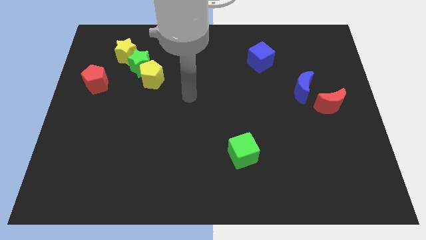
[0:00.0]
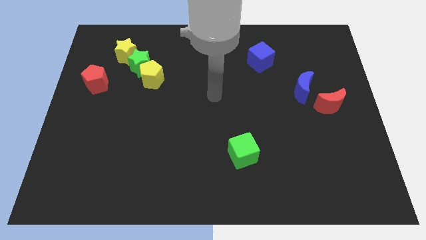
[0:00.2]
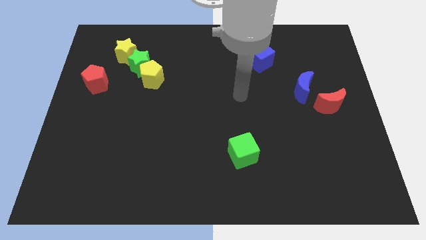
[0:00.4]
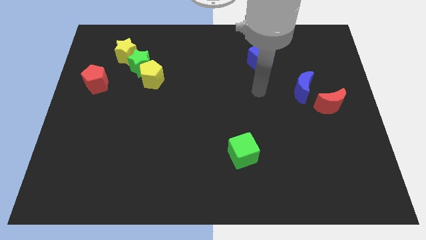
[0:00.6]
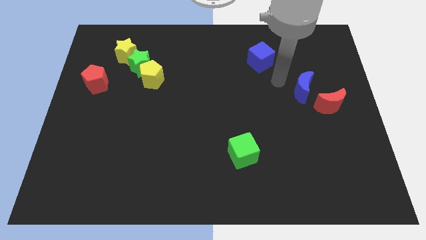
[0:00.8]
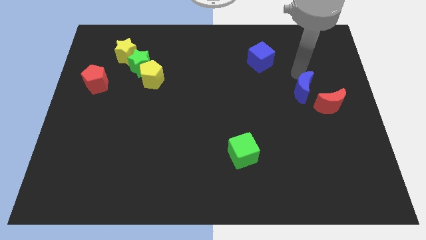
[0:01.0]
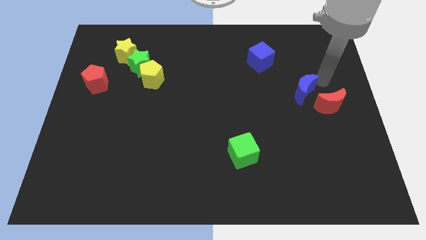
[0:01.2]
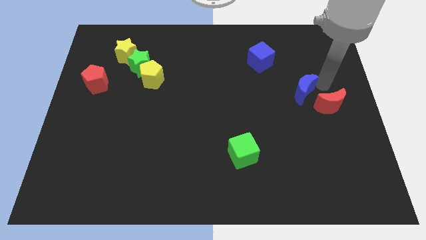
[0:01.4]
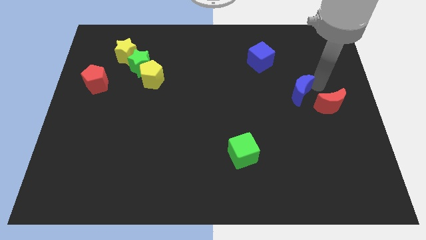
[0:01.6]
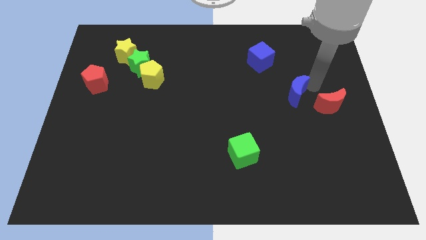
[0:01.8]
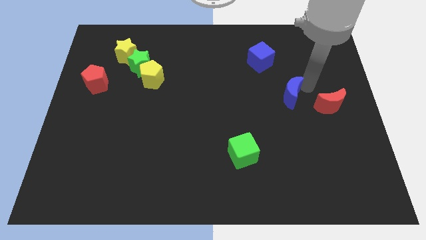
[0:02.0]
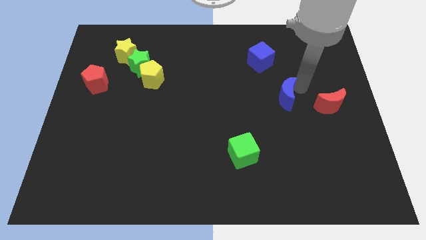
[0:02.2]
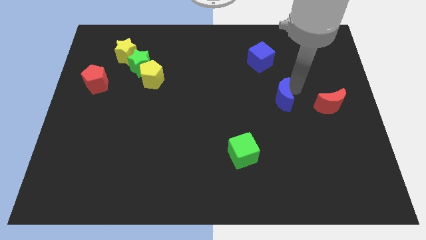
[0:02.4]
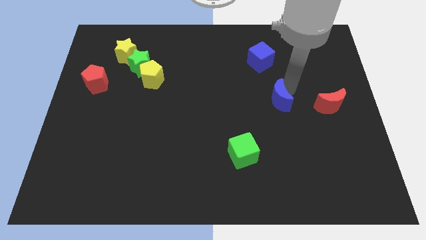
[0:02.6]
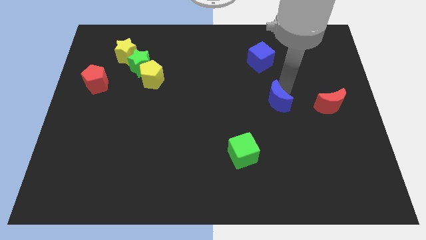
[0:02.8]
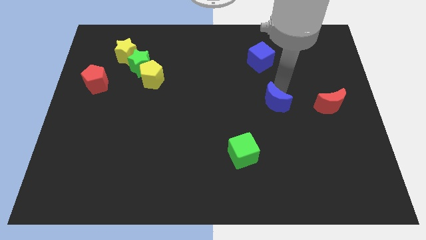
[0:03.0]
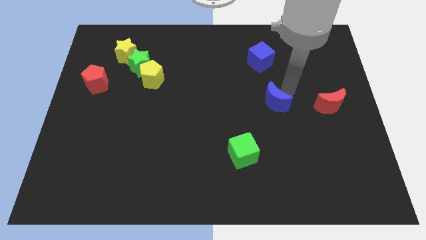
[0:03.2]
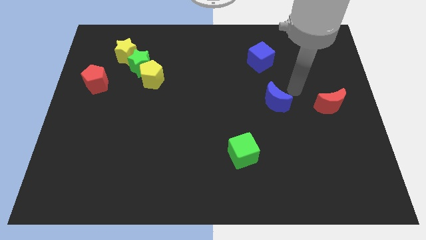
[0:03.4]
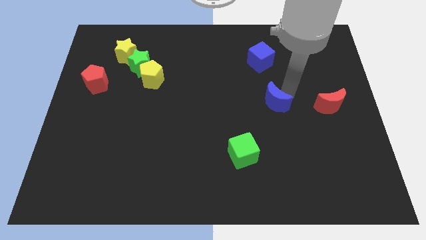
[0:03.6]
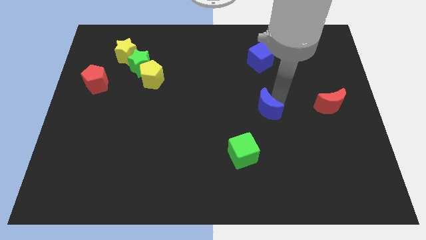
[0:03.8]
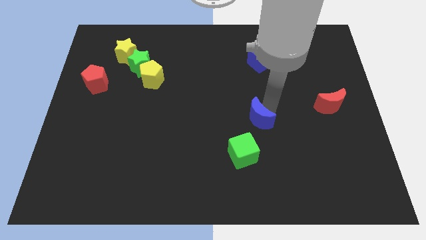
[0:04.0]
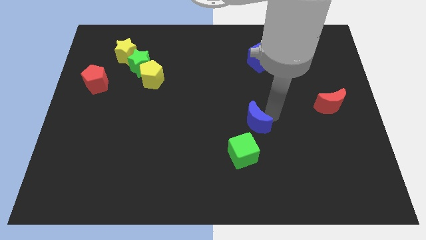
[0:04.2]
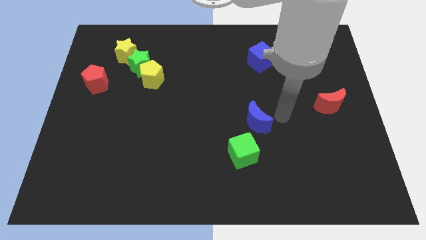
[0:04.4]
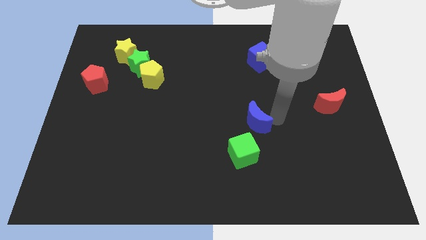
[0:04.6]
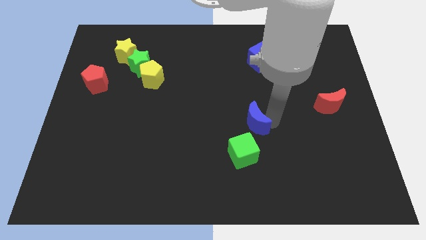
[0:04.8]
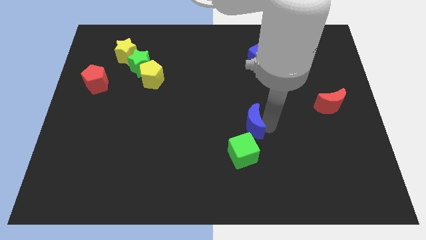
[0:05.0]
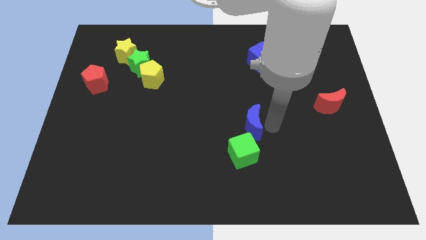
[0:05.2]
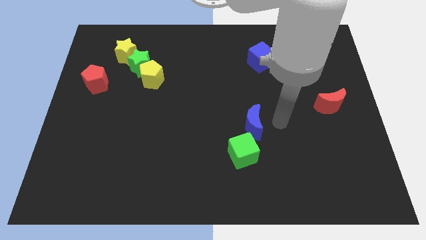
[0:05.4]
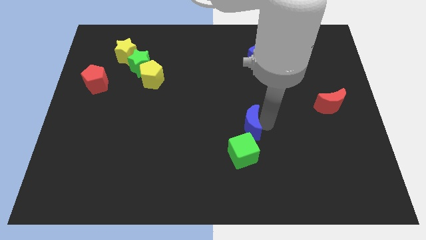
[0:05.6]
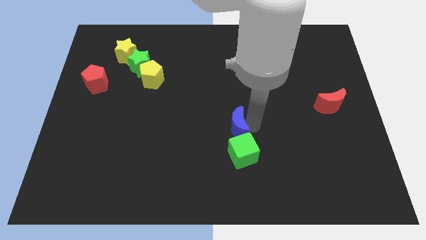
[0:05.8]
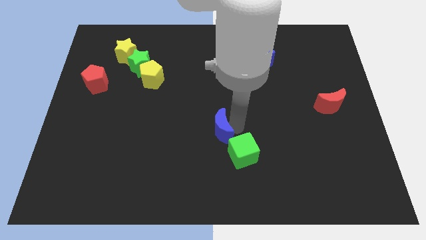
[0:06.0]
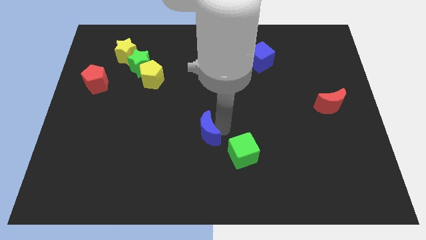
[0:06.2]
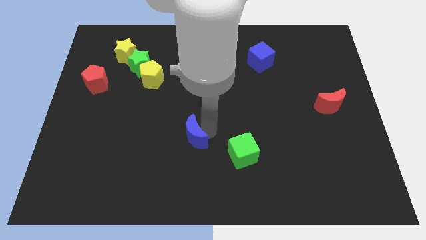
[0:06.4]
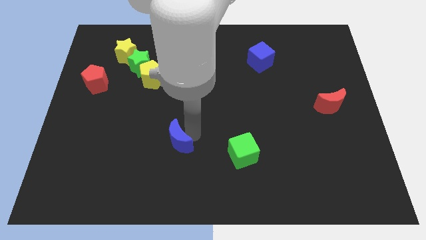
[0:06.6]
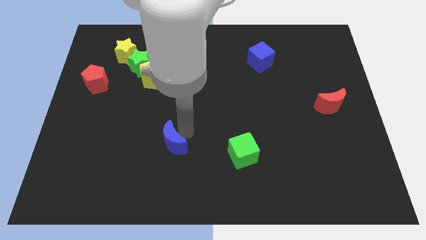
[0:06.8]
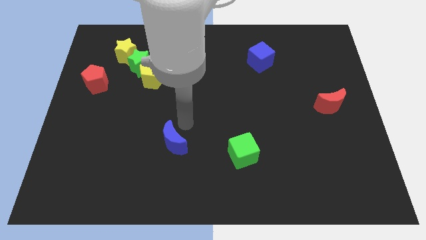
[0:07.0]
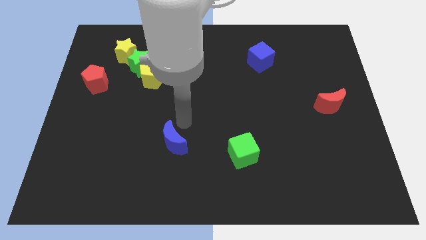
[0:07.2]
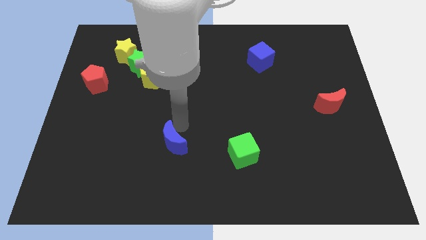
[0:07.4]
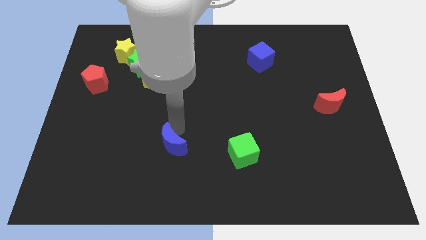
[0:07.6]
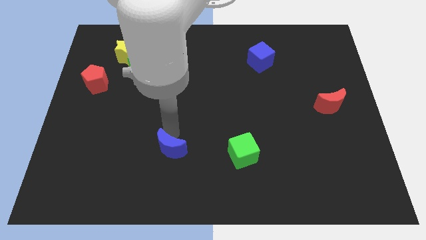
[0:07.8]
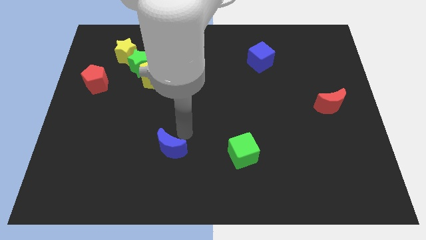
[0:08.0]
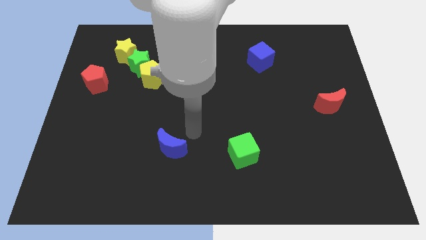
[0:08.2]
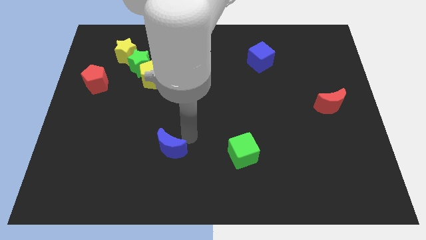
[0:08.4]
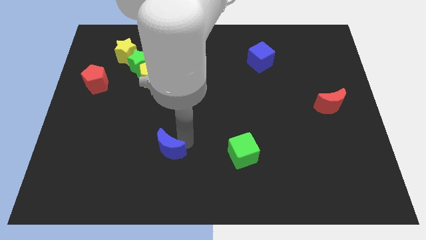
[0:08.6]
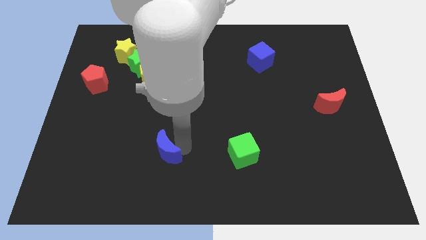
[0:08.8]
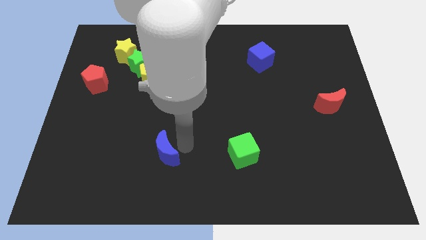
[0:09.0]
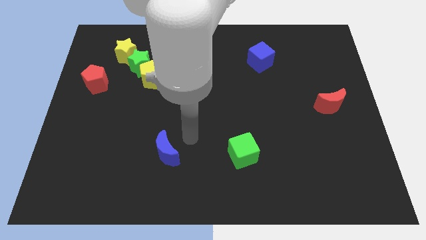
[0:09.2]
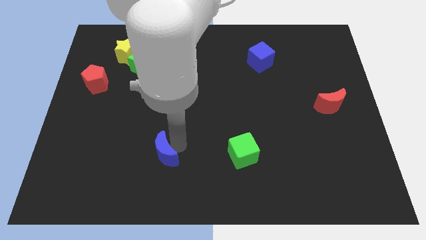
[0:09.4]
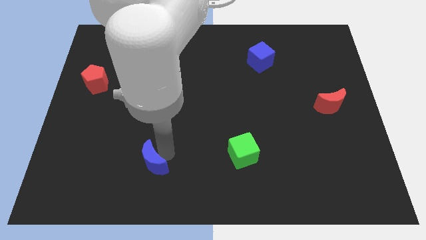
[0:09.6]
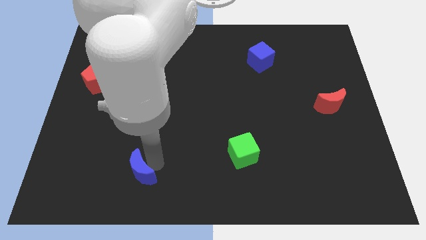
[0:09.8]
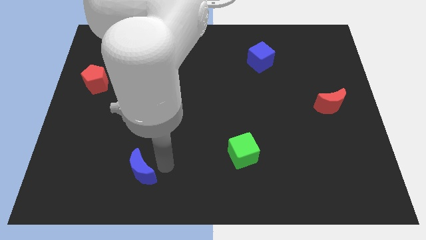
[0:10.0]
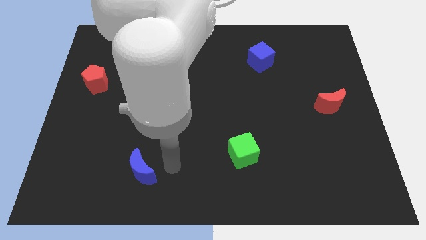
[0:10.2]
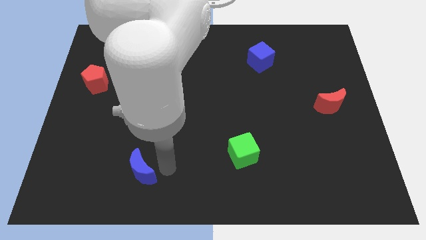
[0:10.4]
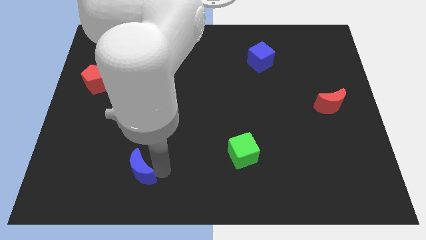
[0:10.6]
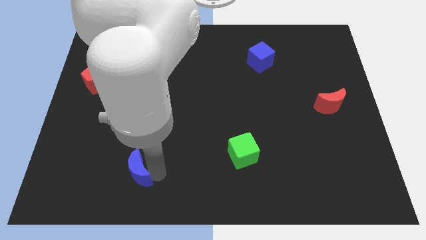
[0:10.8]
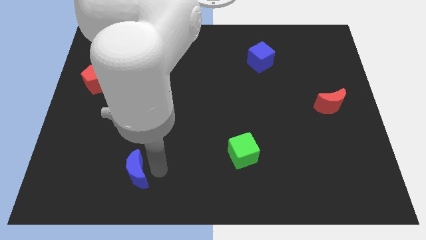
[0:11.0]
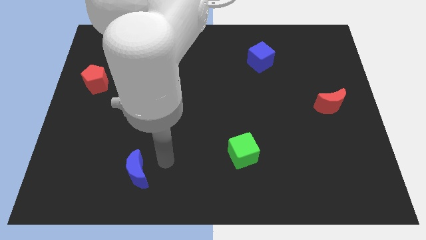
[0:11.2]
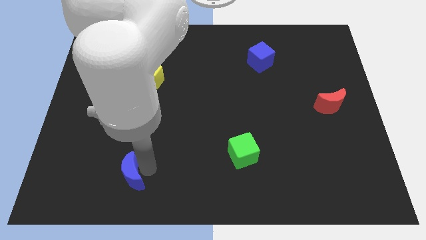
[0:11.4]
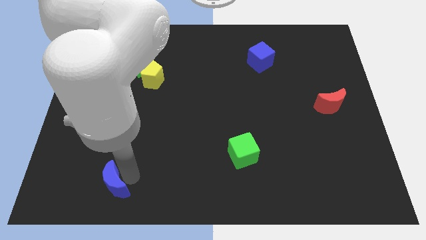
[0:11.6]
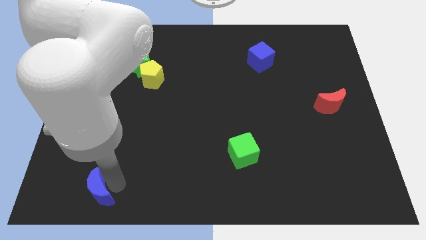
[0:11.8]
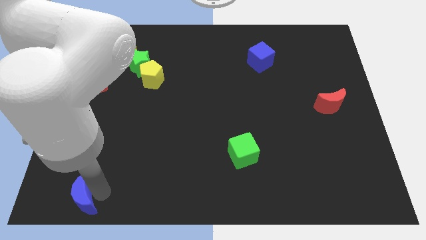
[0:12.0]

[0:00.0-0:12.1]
push the blue moon to the bottom left corner
